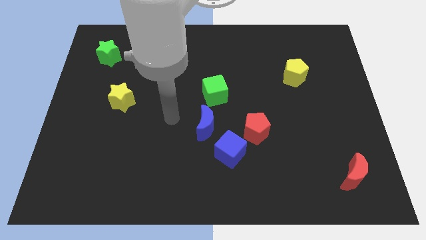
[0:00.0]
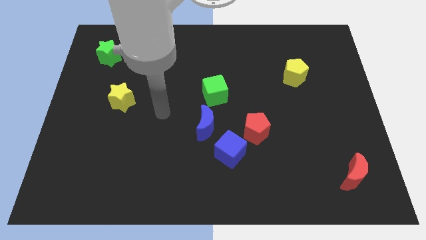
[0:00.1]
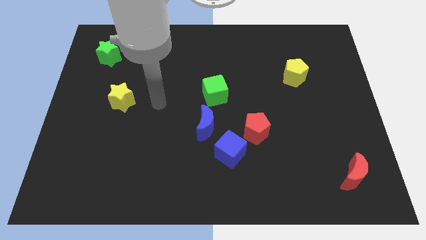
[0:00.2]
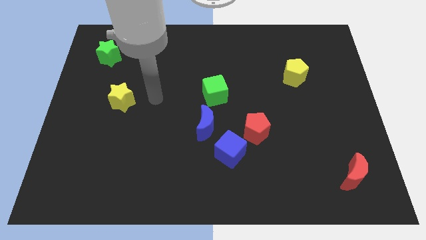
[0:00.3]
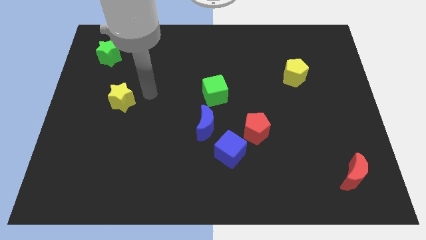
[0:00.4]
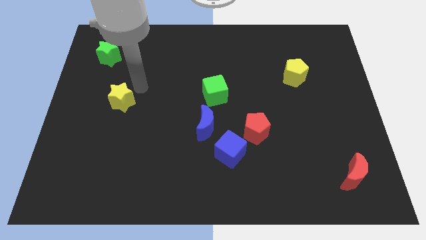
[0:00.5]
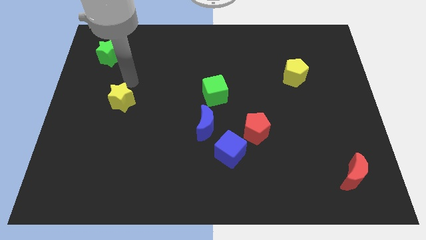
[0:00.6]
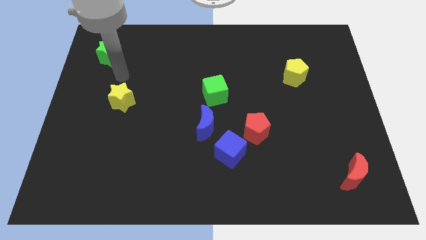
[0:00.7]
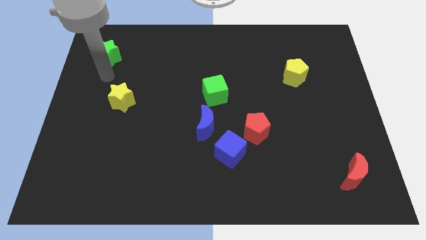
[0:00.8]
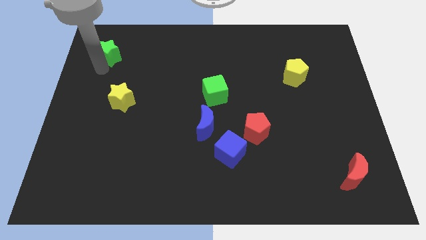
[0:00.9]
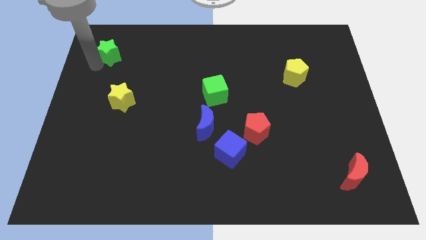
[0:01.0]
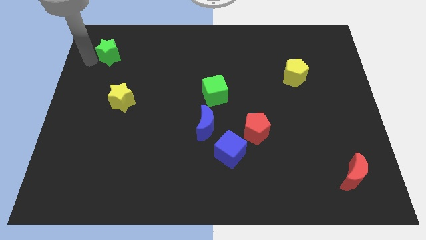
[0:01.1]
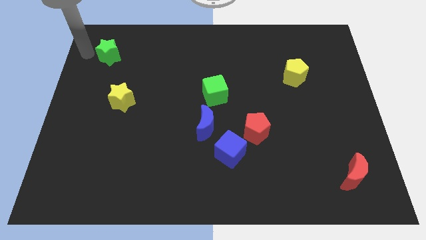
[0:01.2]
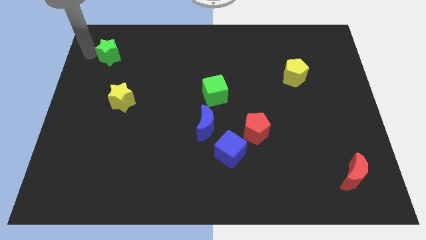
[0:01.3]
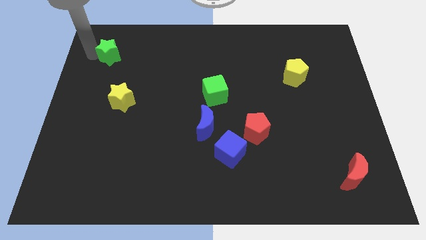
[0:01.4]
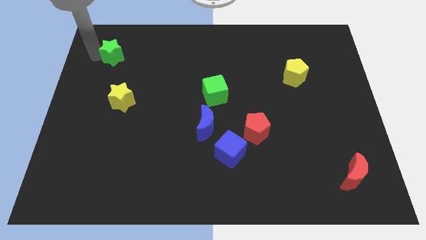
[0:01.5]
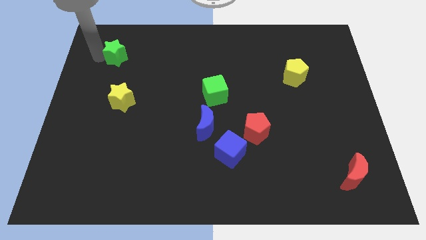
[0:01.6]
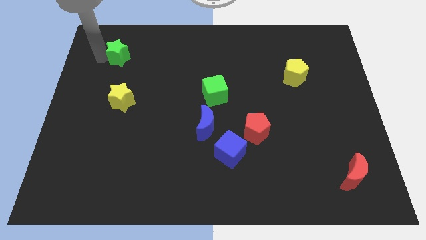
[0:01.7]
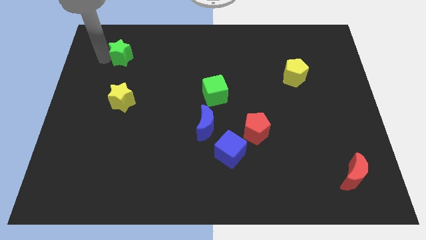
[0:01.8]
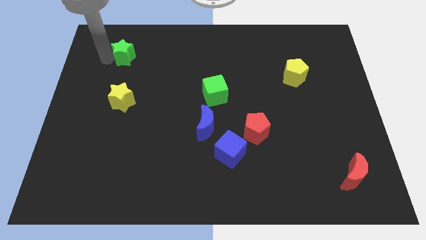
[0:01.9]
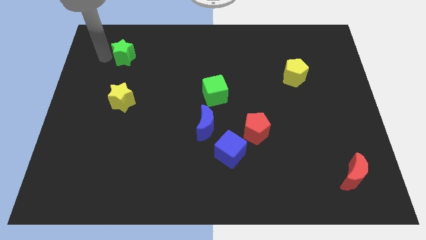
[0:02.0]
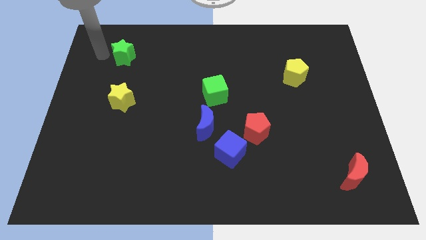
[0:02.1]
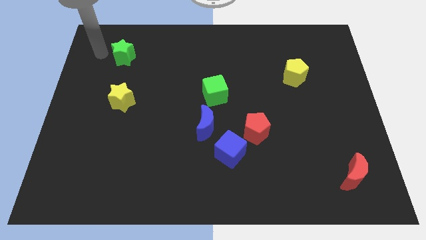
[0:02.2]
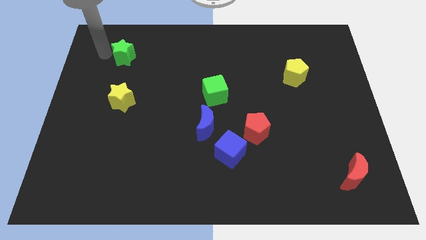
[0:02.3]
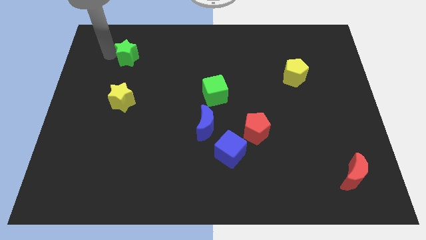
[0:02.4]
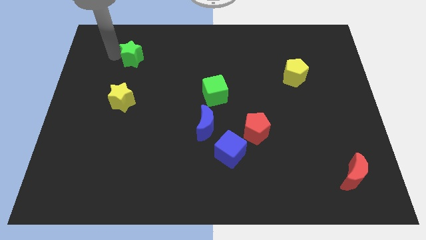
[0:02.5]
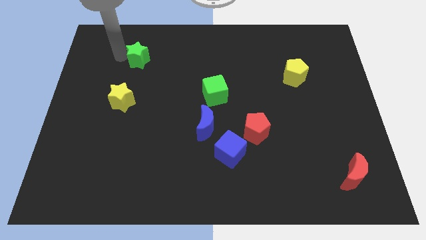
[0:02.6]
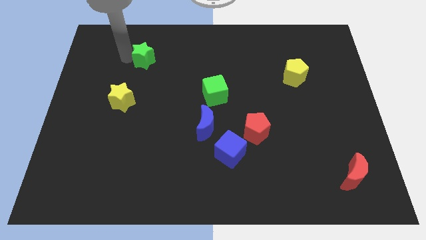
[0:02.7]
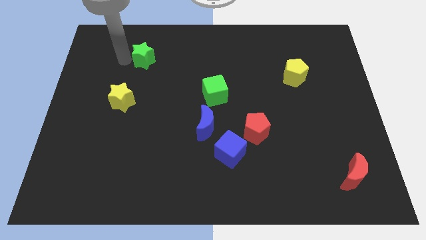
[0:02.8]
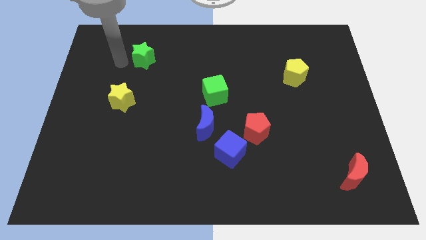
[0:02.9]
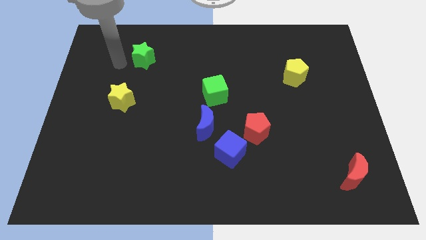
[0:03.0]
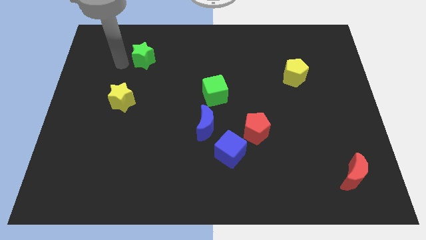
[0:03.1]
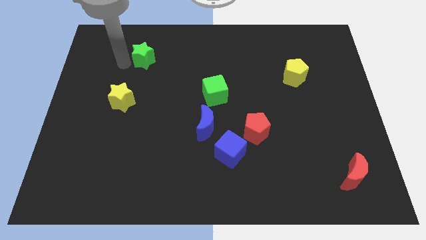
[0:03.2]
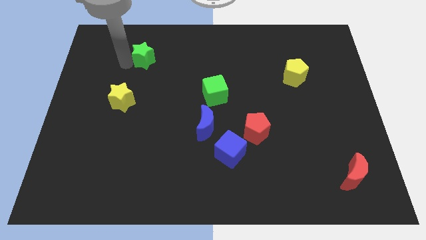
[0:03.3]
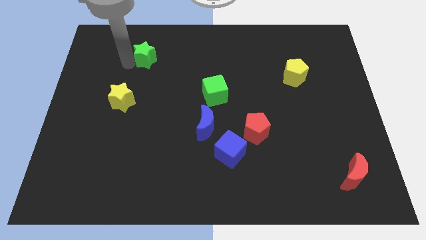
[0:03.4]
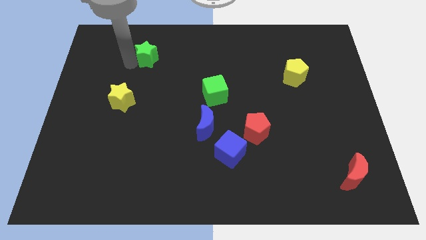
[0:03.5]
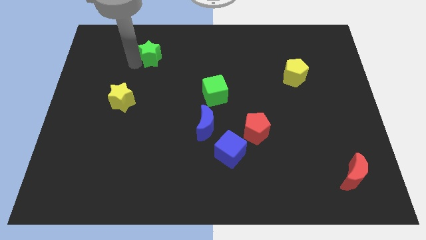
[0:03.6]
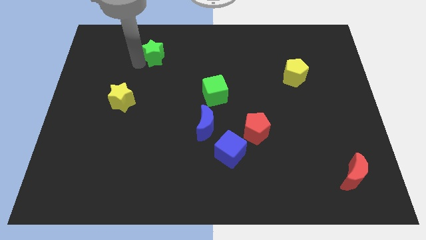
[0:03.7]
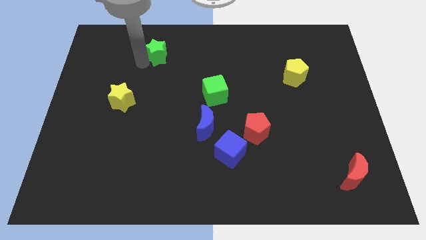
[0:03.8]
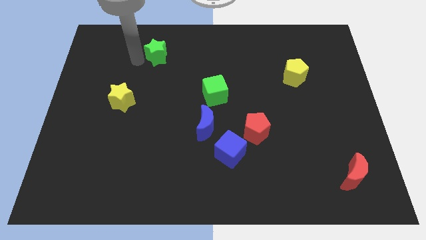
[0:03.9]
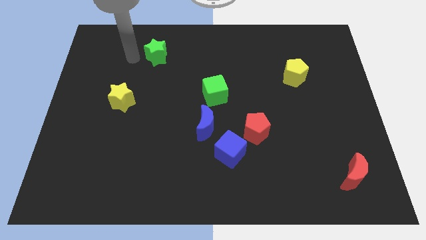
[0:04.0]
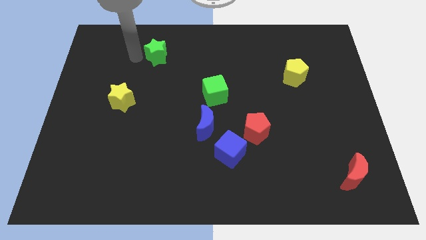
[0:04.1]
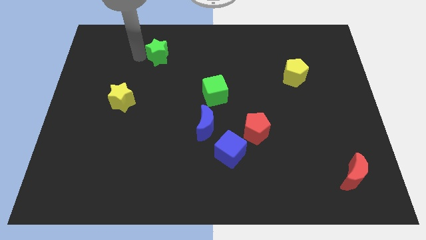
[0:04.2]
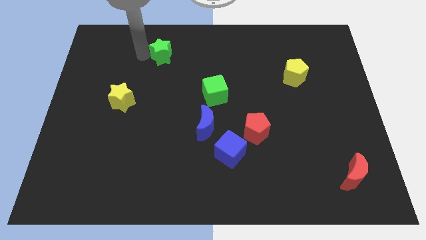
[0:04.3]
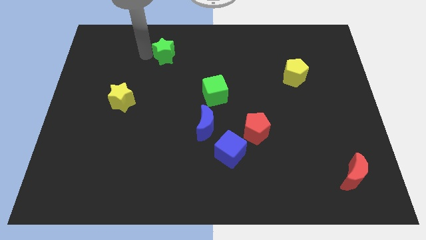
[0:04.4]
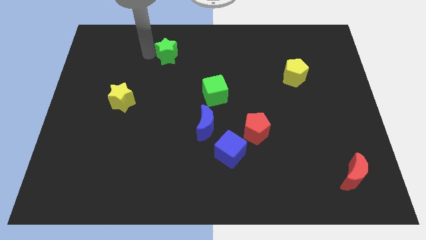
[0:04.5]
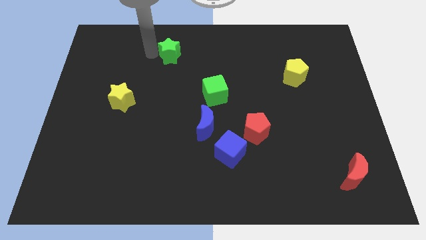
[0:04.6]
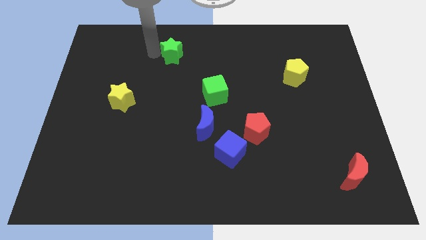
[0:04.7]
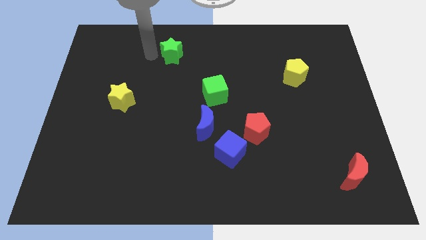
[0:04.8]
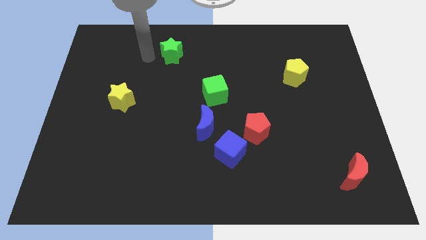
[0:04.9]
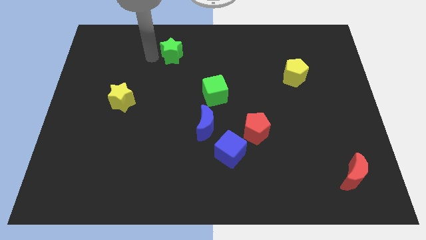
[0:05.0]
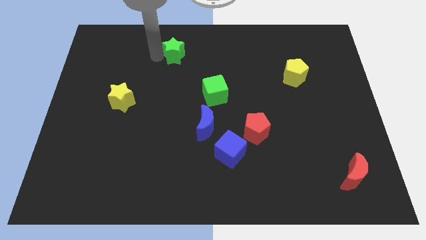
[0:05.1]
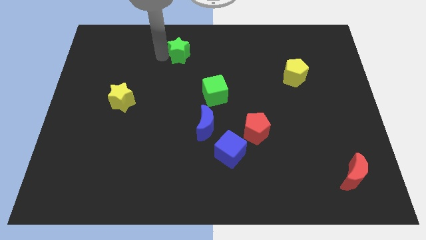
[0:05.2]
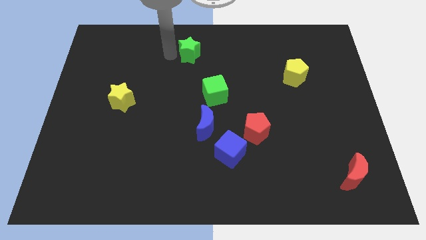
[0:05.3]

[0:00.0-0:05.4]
slide the green star to the right

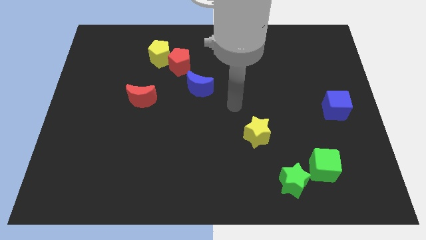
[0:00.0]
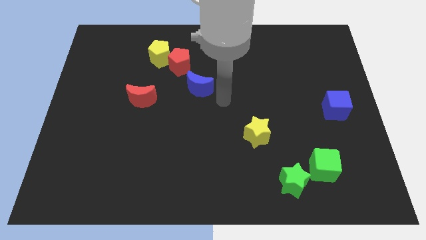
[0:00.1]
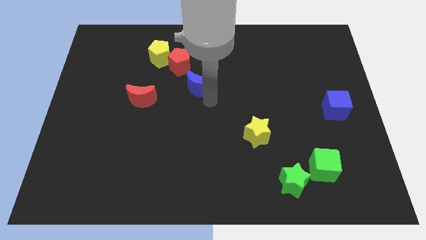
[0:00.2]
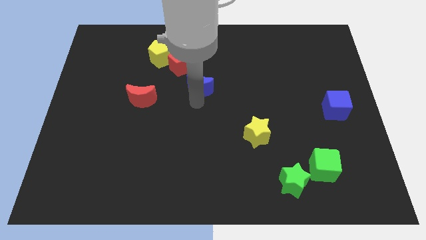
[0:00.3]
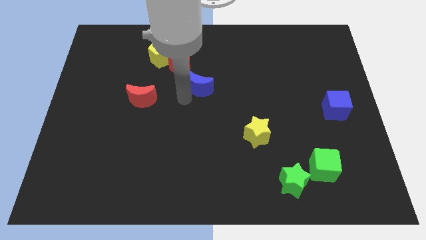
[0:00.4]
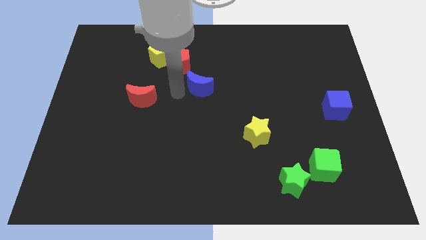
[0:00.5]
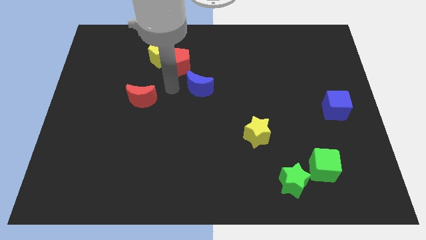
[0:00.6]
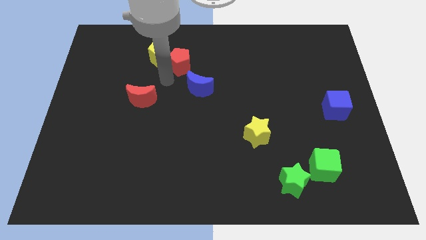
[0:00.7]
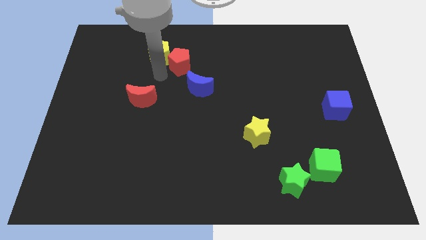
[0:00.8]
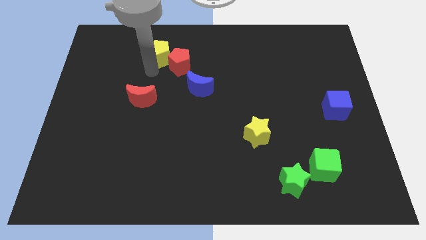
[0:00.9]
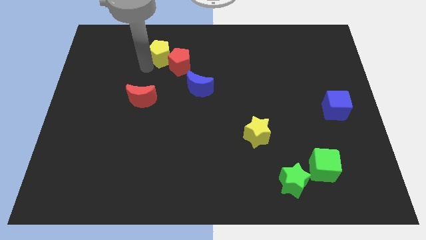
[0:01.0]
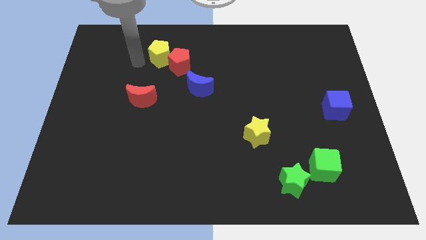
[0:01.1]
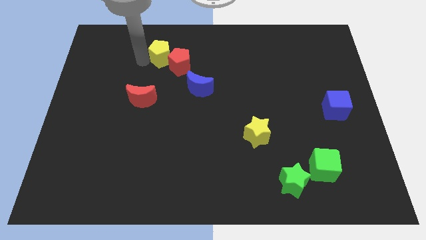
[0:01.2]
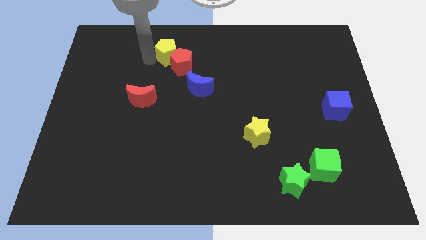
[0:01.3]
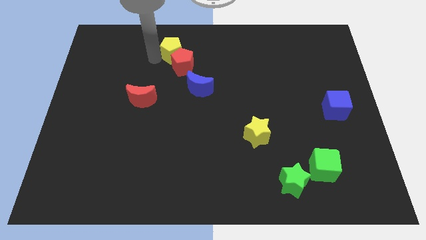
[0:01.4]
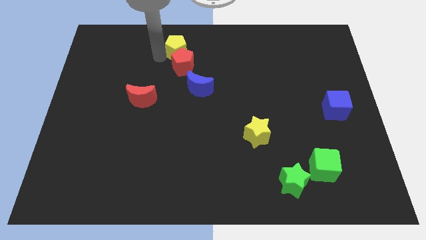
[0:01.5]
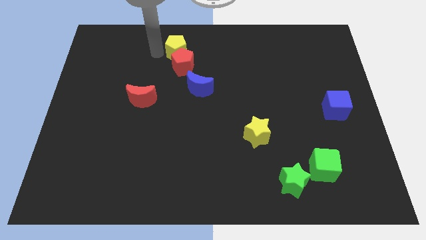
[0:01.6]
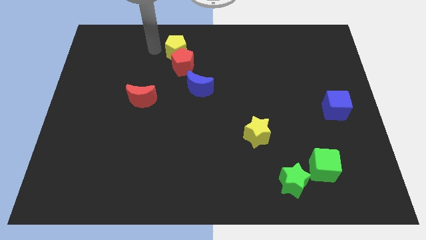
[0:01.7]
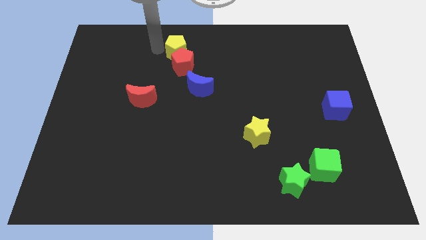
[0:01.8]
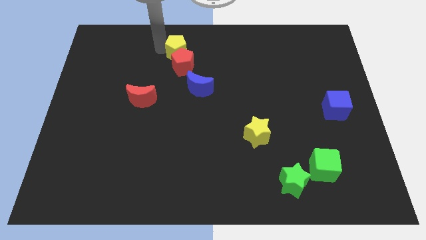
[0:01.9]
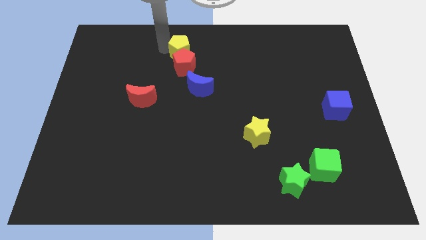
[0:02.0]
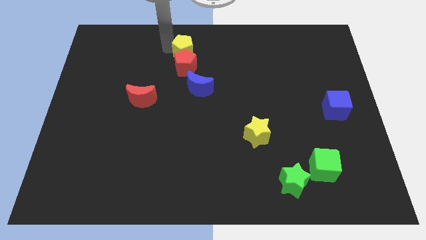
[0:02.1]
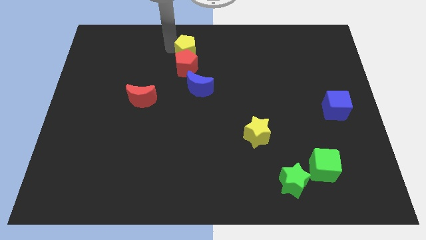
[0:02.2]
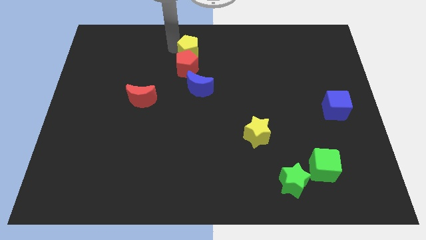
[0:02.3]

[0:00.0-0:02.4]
move the yellow pentagon right somewhat
